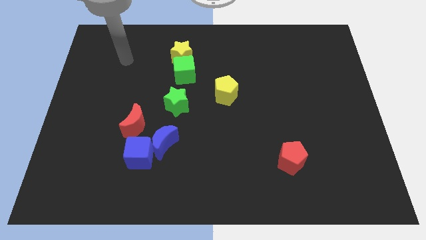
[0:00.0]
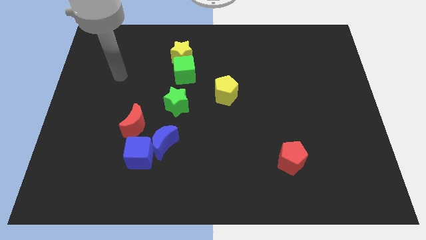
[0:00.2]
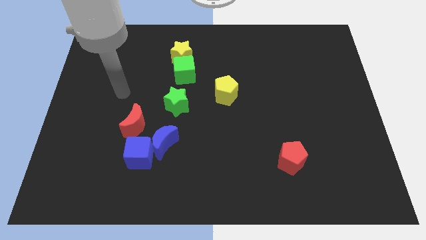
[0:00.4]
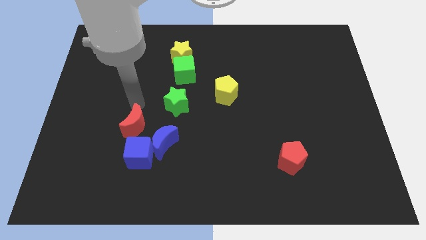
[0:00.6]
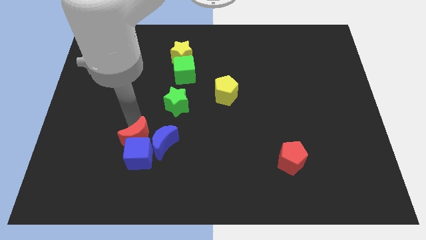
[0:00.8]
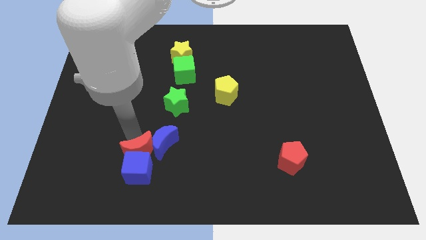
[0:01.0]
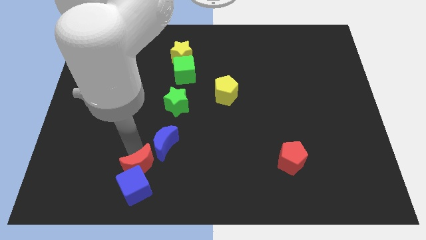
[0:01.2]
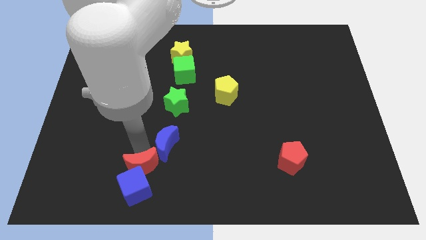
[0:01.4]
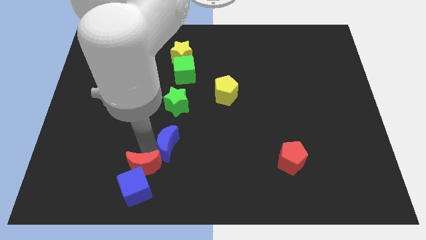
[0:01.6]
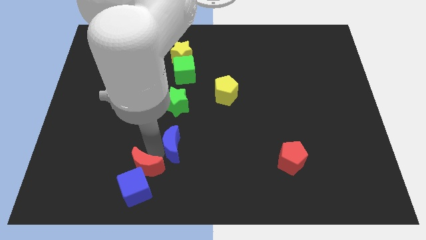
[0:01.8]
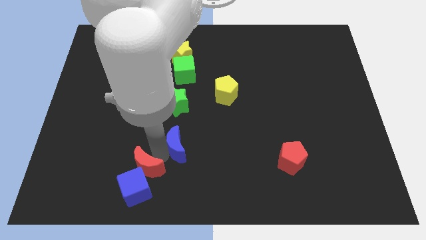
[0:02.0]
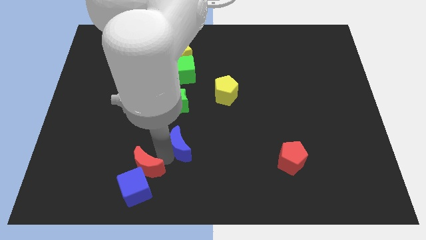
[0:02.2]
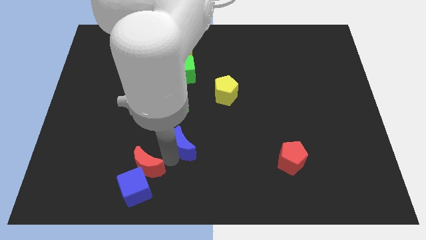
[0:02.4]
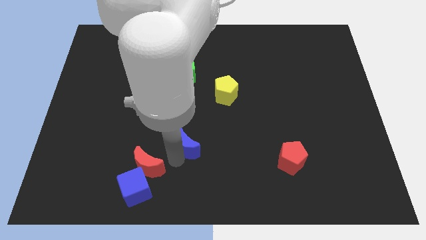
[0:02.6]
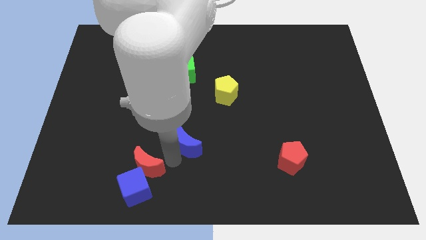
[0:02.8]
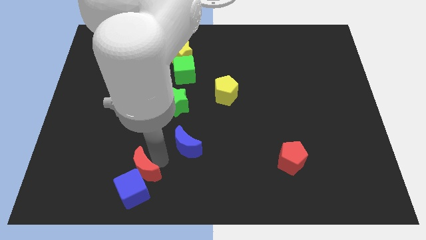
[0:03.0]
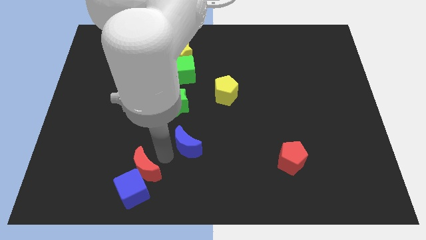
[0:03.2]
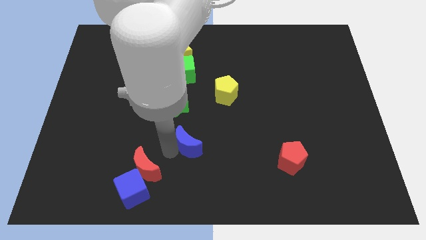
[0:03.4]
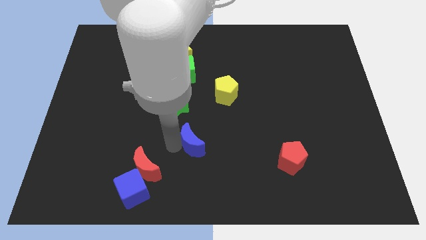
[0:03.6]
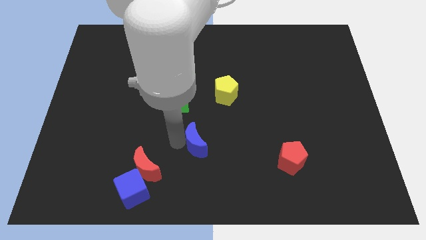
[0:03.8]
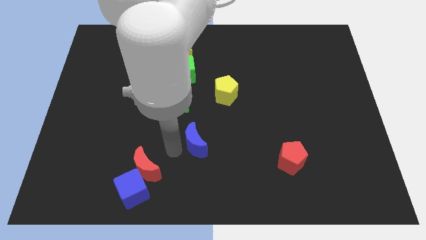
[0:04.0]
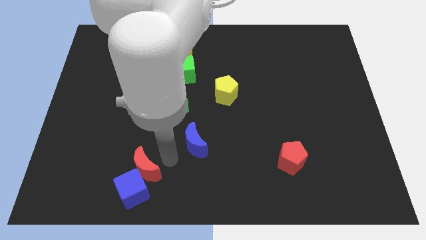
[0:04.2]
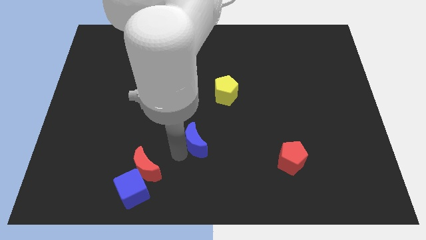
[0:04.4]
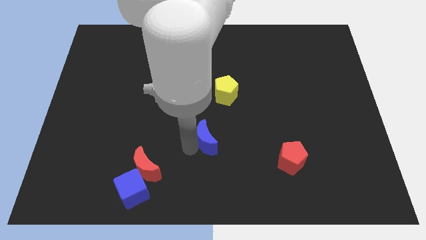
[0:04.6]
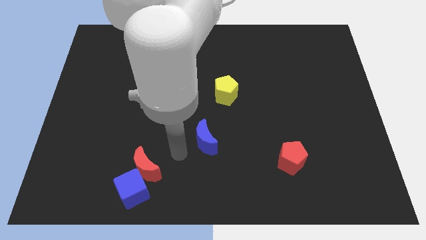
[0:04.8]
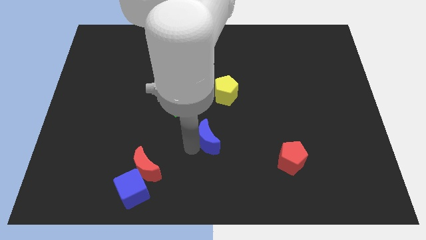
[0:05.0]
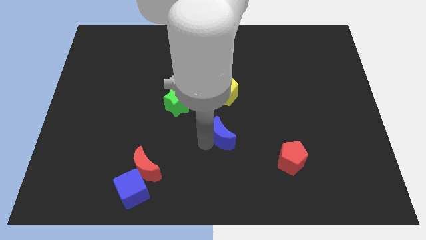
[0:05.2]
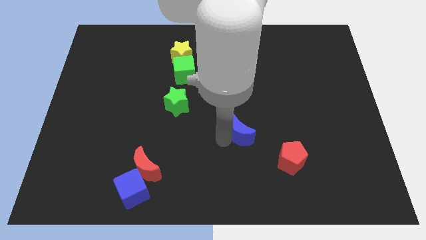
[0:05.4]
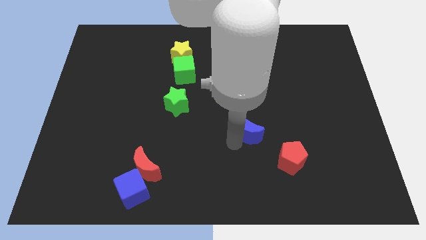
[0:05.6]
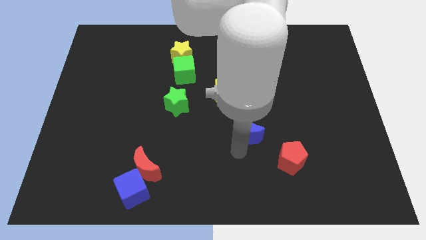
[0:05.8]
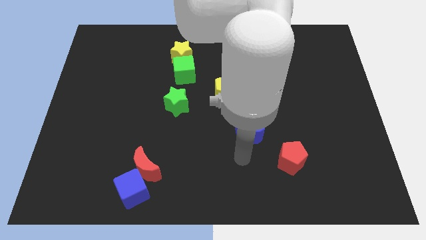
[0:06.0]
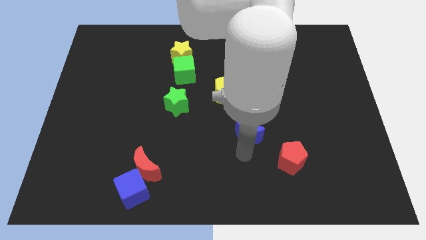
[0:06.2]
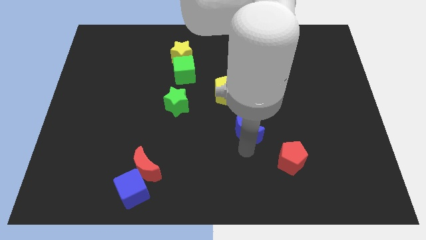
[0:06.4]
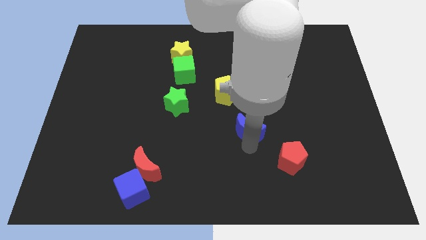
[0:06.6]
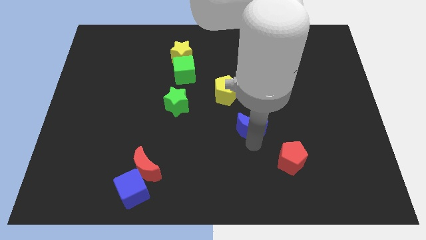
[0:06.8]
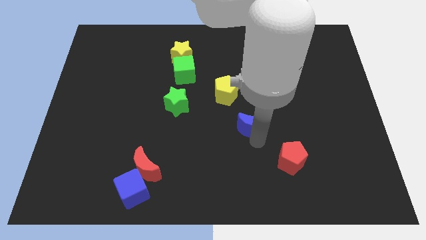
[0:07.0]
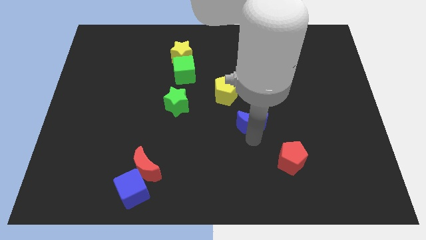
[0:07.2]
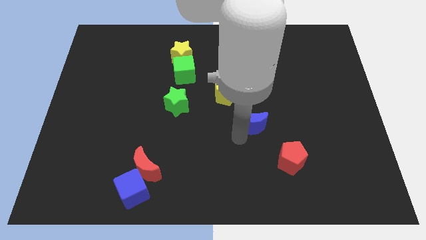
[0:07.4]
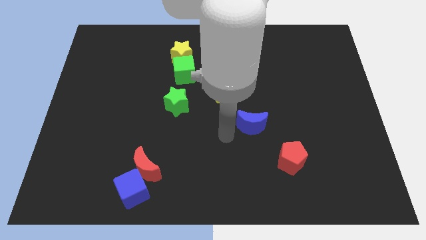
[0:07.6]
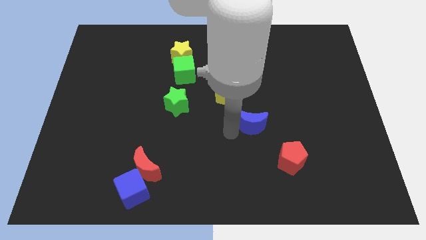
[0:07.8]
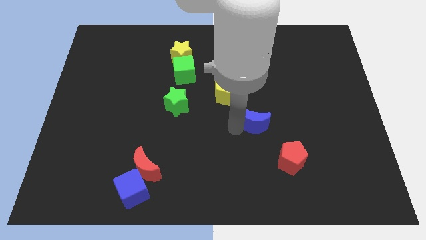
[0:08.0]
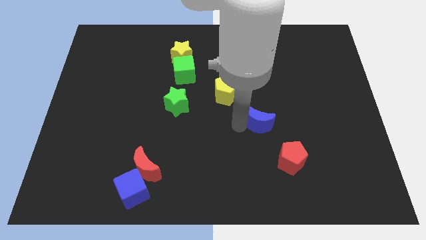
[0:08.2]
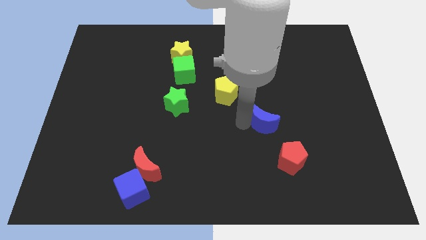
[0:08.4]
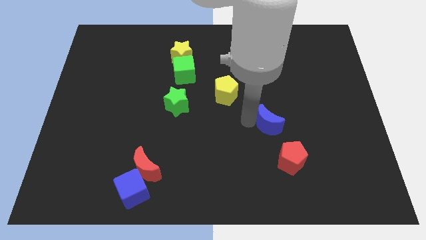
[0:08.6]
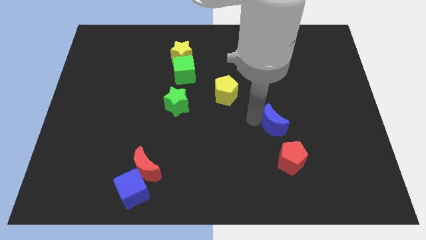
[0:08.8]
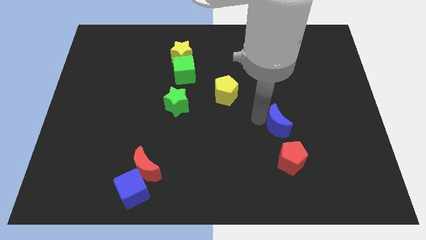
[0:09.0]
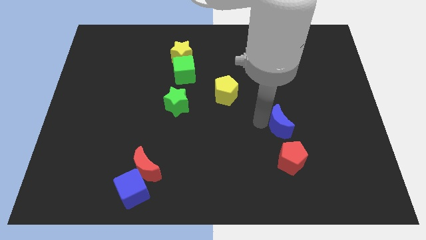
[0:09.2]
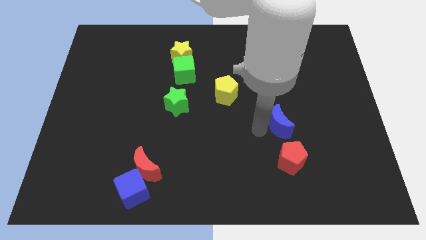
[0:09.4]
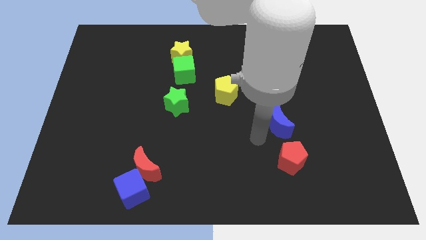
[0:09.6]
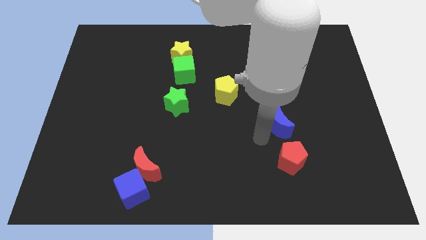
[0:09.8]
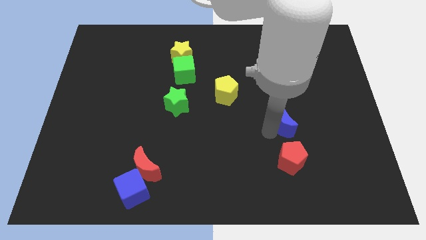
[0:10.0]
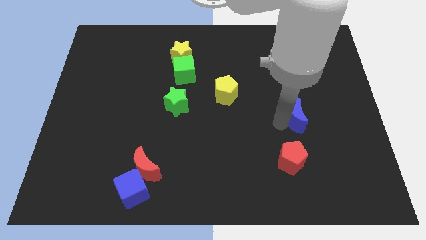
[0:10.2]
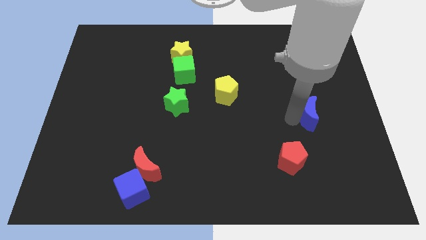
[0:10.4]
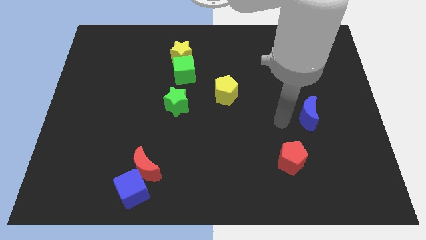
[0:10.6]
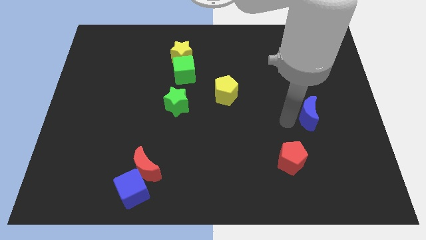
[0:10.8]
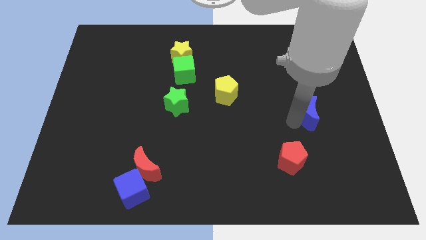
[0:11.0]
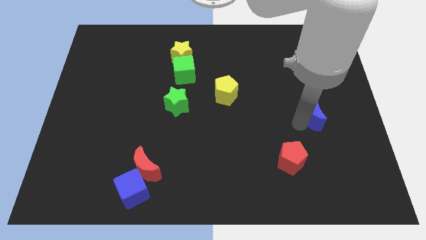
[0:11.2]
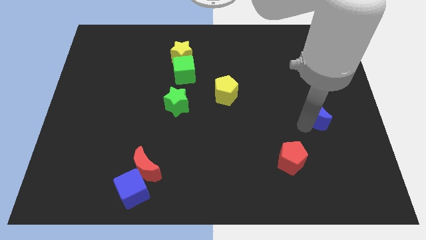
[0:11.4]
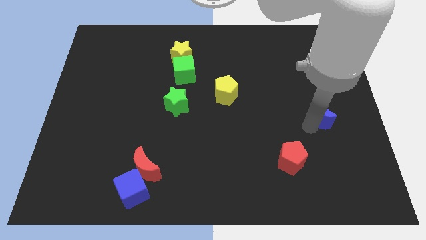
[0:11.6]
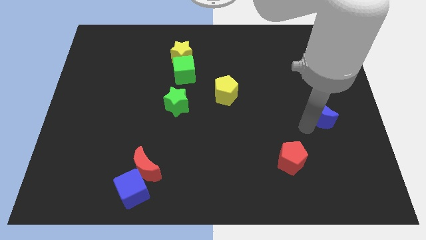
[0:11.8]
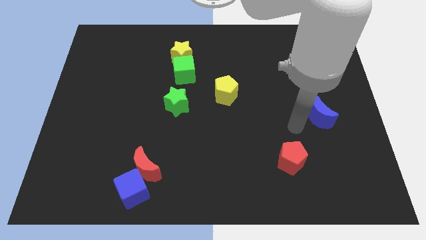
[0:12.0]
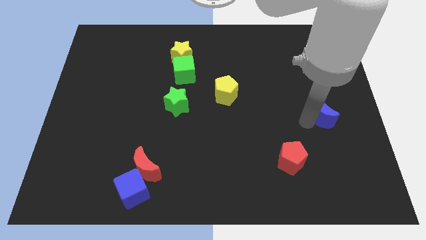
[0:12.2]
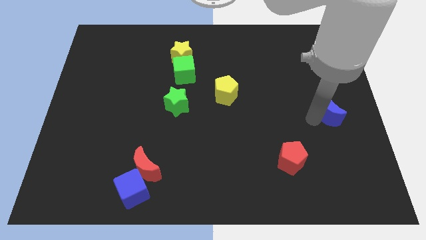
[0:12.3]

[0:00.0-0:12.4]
push the blue moon to the right side of the board
